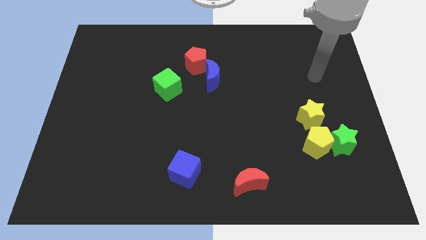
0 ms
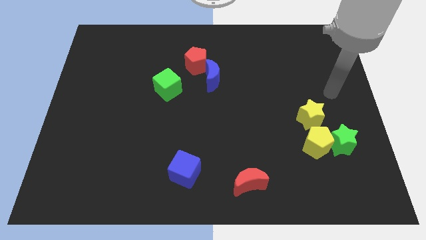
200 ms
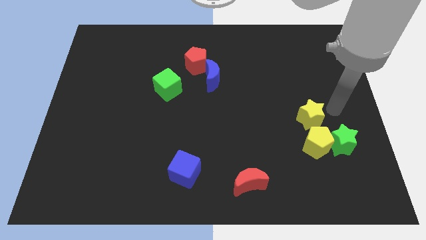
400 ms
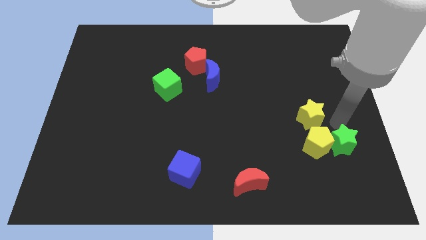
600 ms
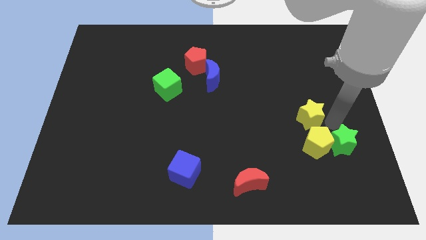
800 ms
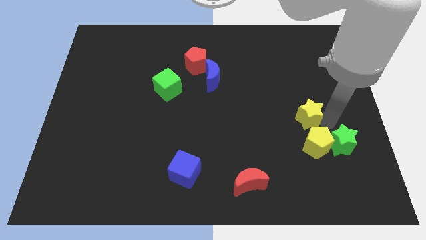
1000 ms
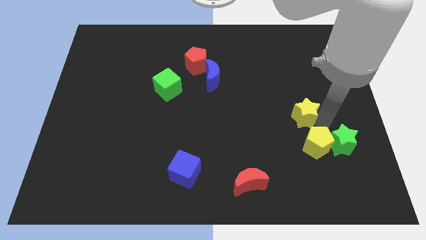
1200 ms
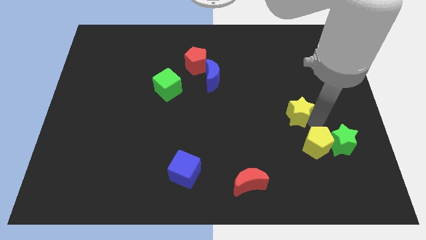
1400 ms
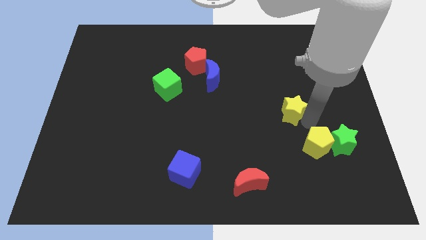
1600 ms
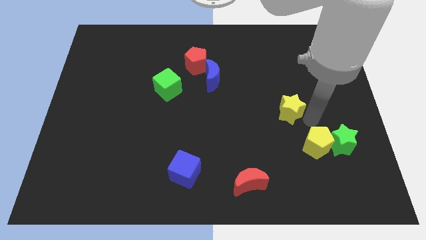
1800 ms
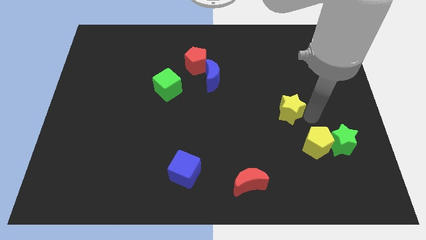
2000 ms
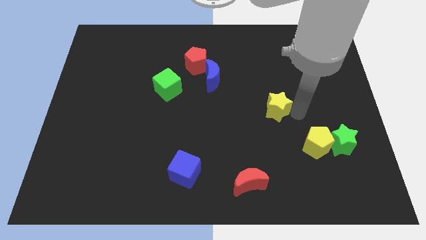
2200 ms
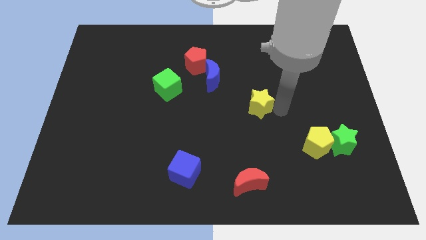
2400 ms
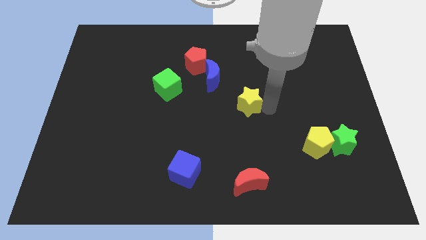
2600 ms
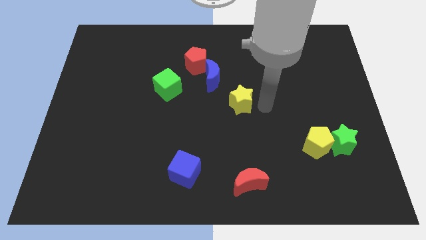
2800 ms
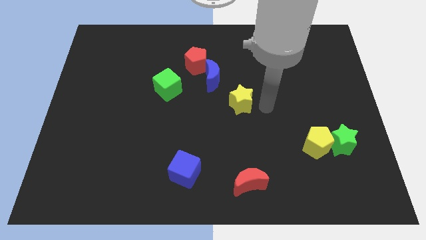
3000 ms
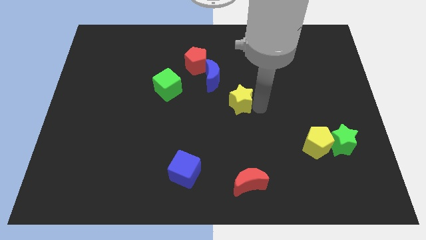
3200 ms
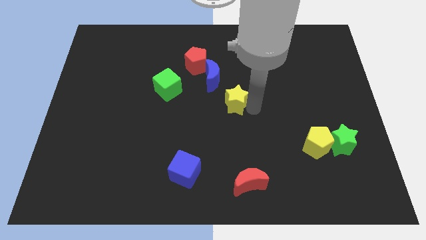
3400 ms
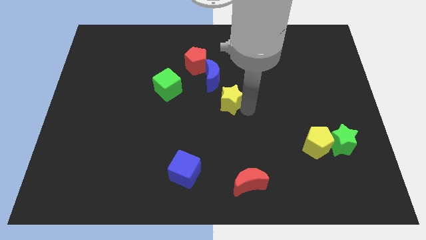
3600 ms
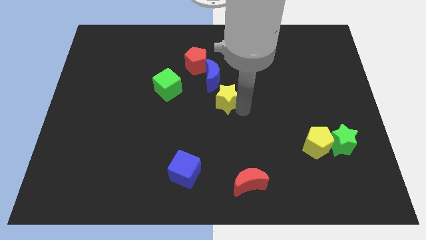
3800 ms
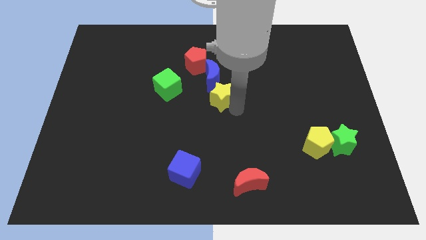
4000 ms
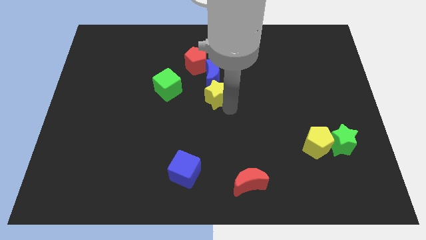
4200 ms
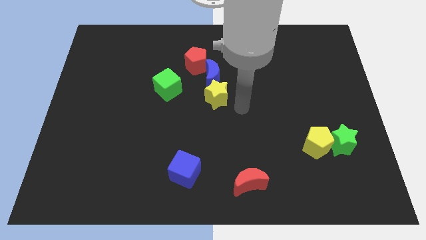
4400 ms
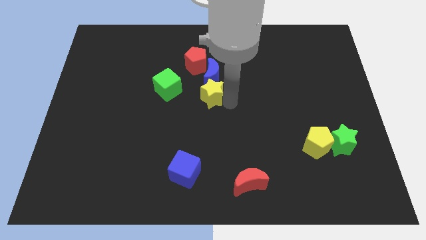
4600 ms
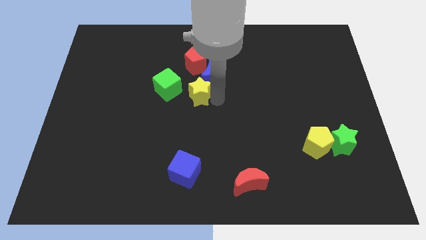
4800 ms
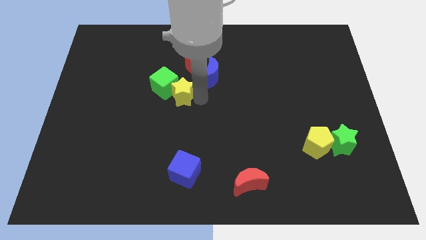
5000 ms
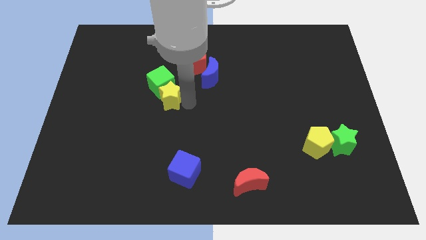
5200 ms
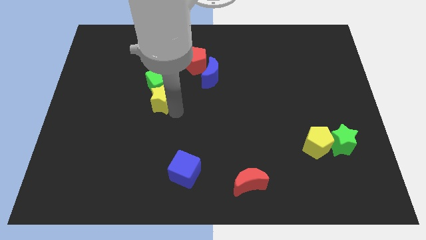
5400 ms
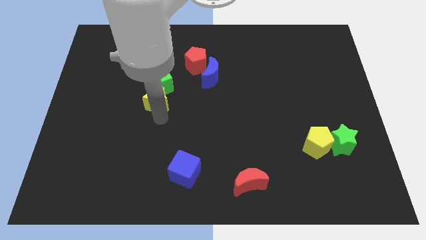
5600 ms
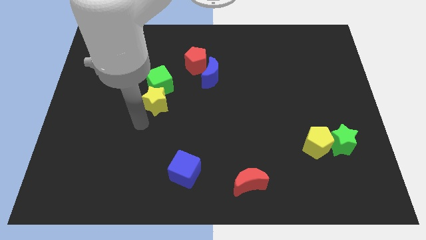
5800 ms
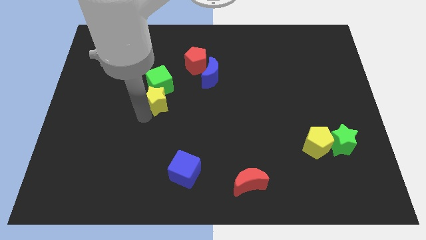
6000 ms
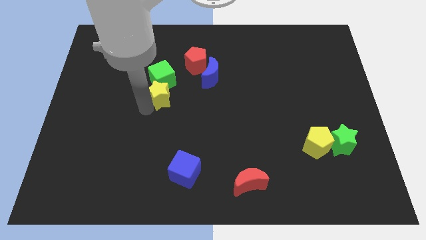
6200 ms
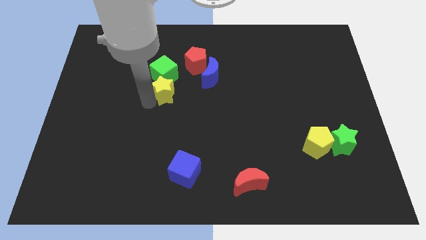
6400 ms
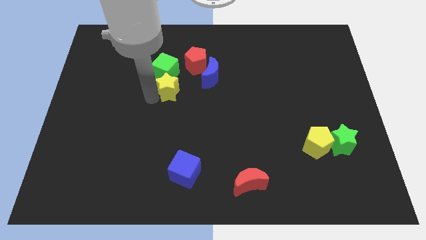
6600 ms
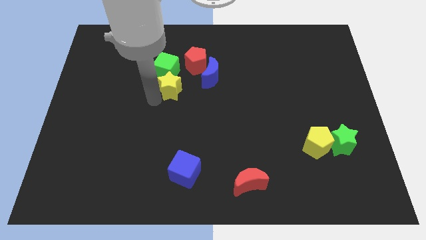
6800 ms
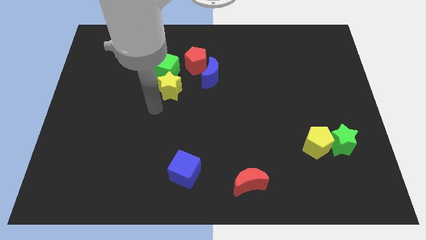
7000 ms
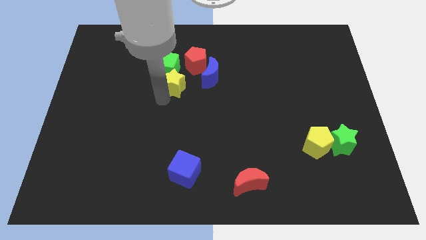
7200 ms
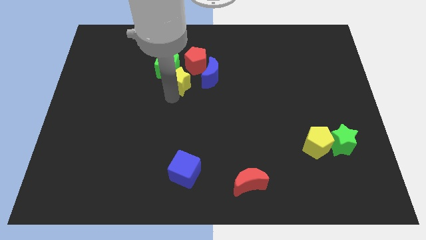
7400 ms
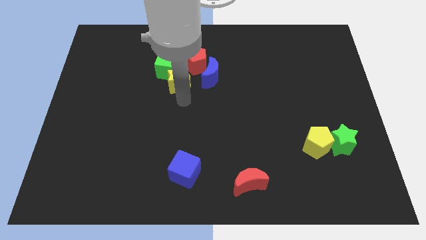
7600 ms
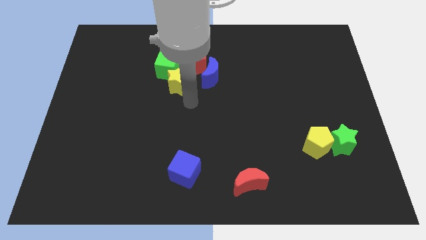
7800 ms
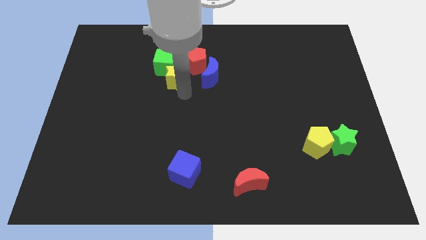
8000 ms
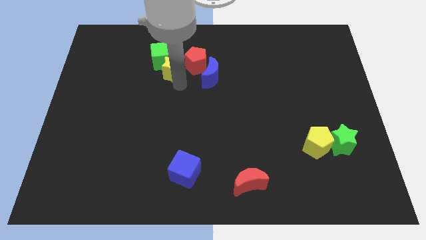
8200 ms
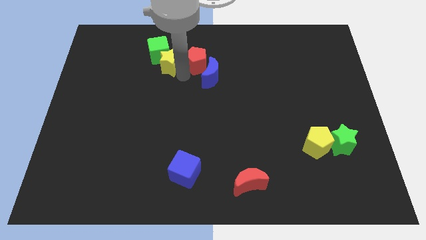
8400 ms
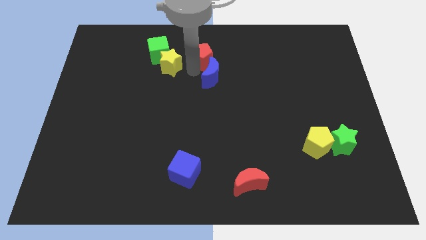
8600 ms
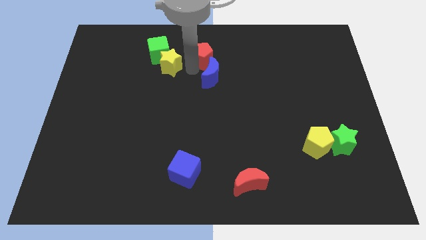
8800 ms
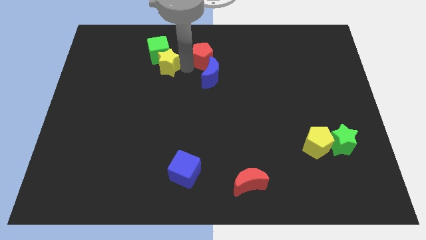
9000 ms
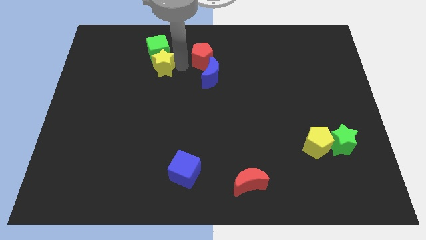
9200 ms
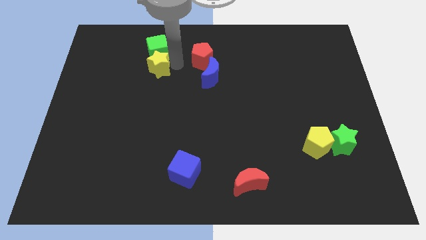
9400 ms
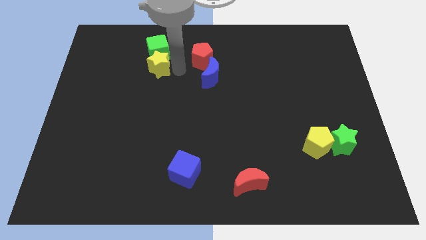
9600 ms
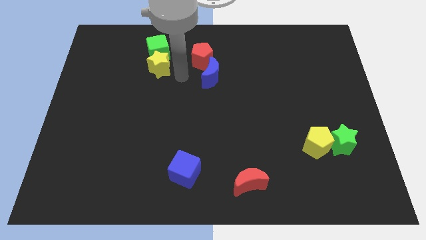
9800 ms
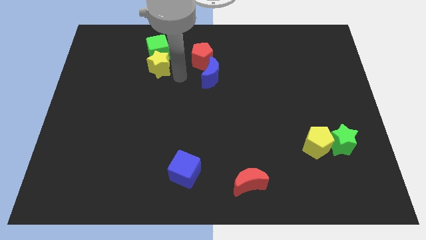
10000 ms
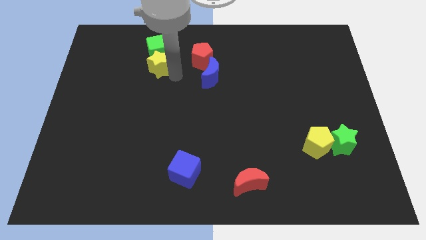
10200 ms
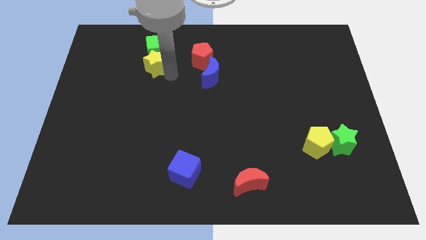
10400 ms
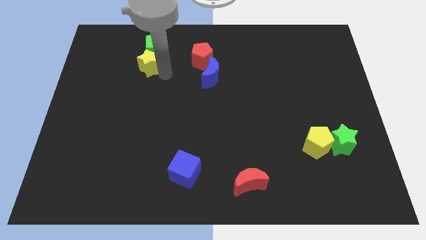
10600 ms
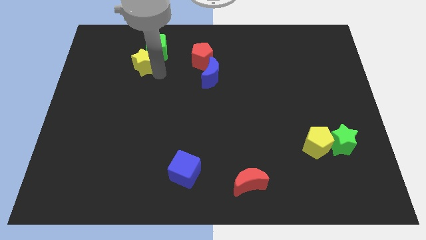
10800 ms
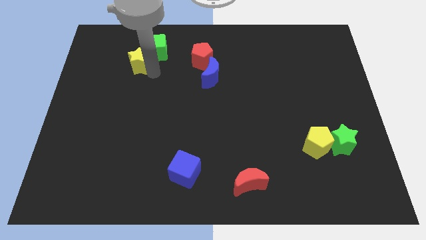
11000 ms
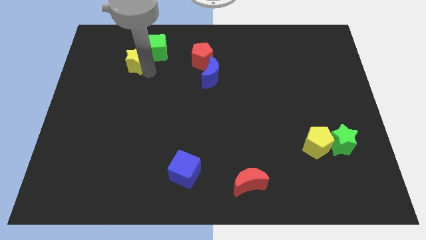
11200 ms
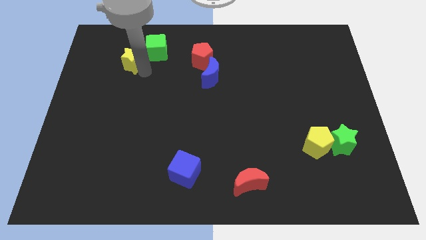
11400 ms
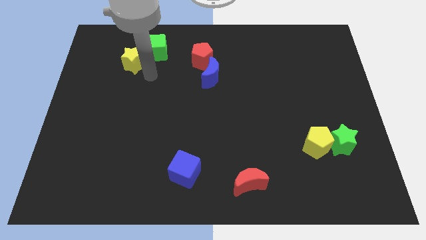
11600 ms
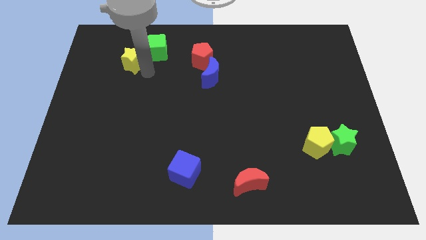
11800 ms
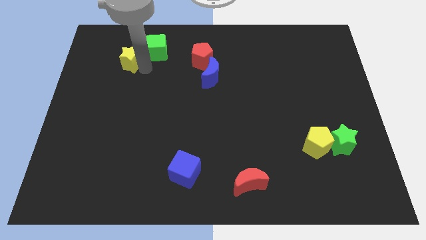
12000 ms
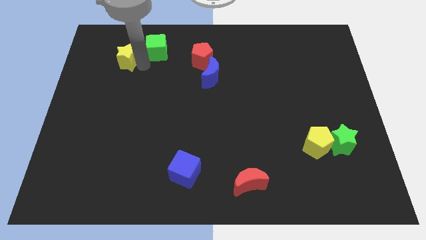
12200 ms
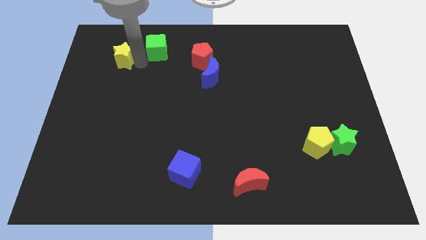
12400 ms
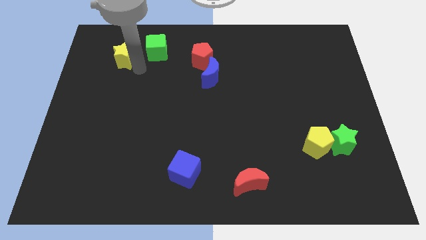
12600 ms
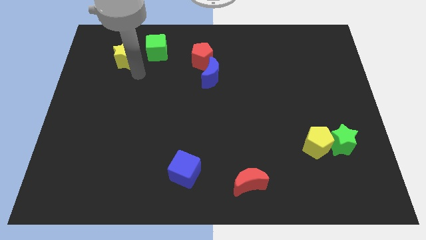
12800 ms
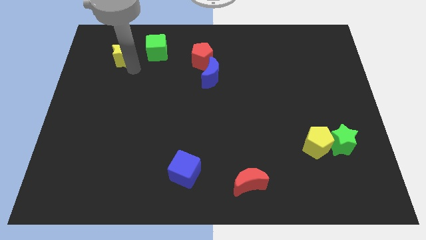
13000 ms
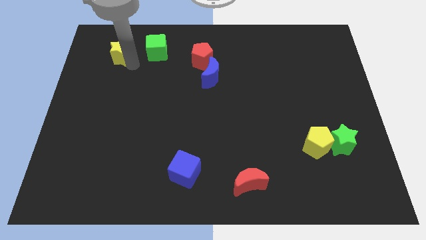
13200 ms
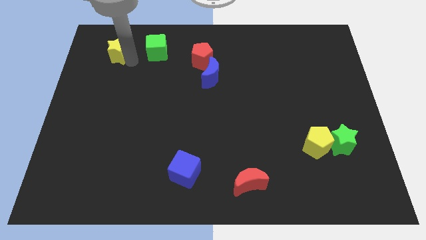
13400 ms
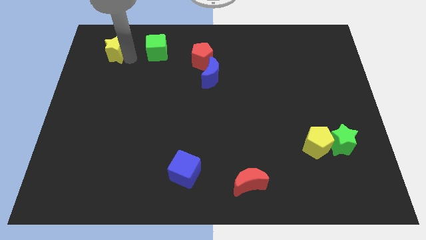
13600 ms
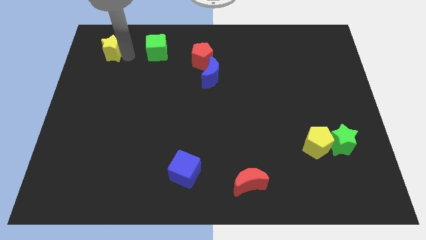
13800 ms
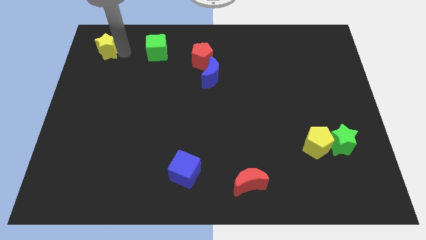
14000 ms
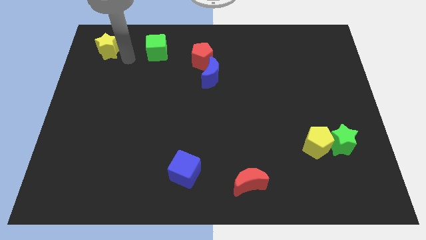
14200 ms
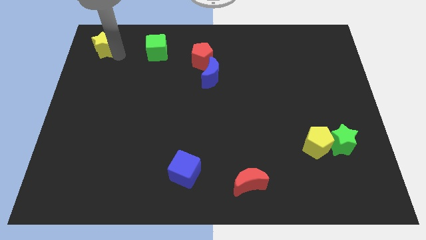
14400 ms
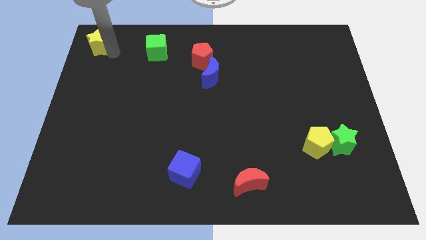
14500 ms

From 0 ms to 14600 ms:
move the yellow star to the top left corner

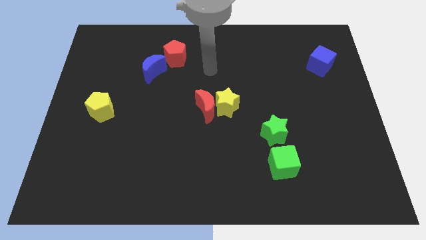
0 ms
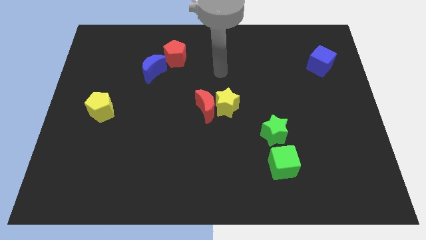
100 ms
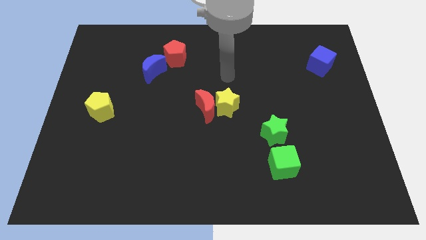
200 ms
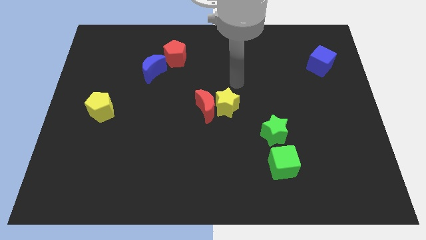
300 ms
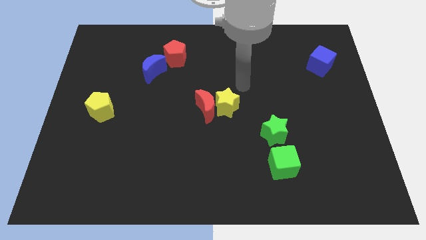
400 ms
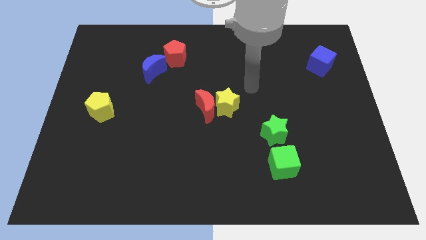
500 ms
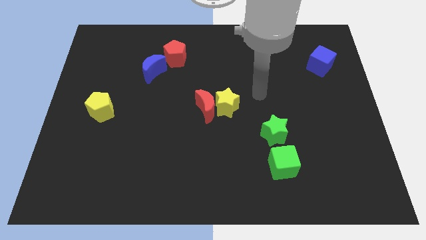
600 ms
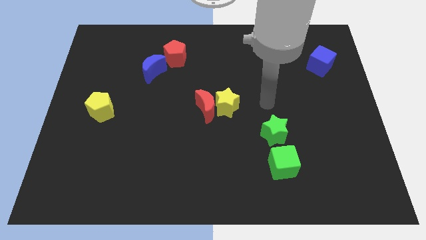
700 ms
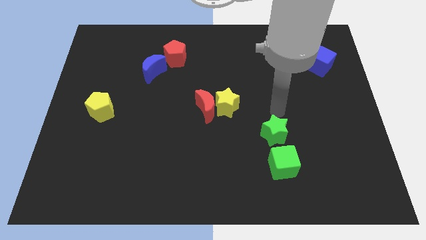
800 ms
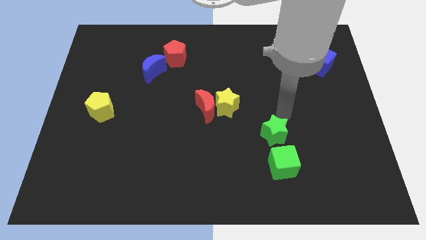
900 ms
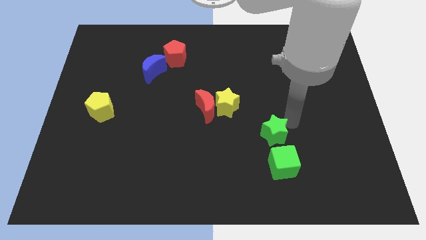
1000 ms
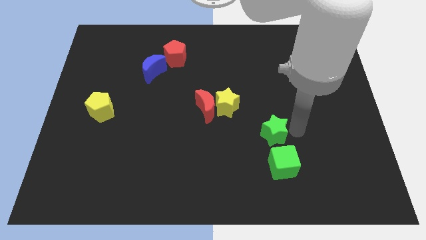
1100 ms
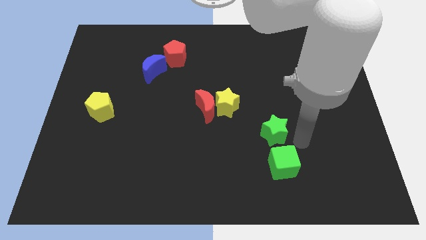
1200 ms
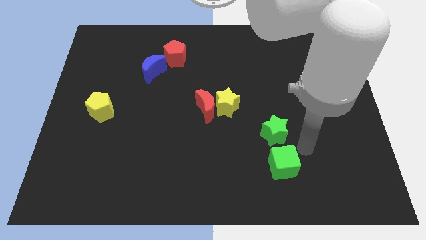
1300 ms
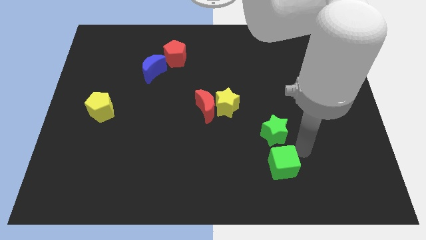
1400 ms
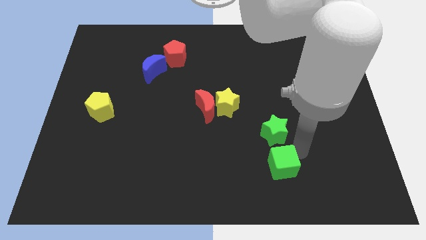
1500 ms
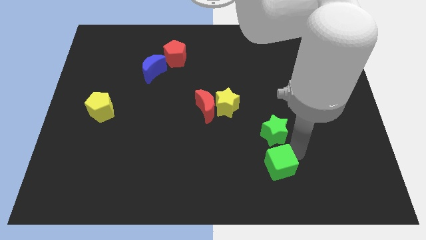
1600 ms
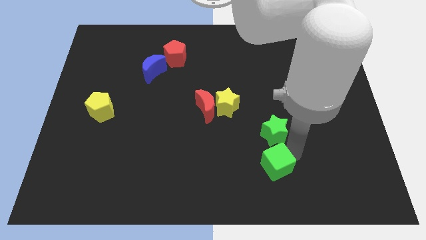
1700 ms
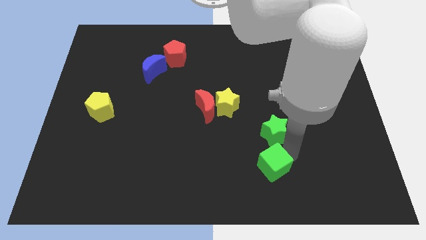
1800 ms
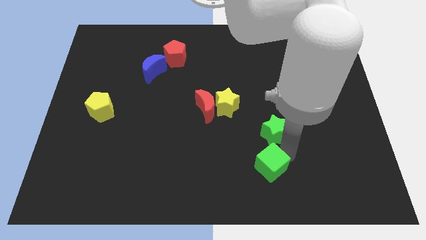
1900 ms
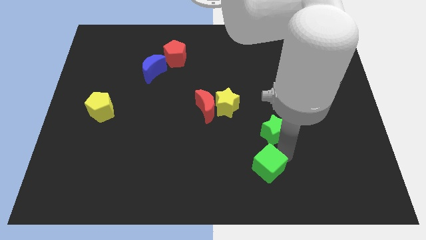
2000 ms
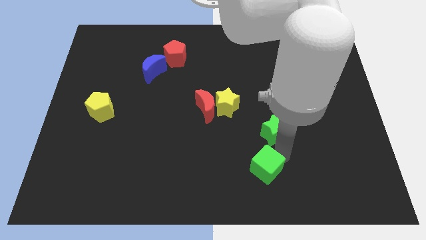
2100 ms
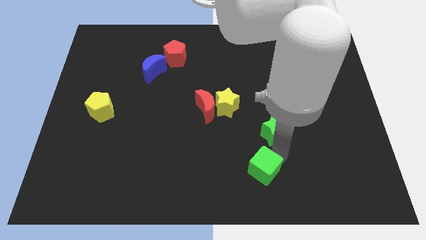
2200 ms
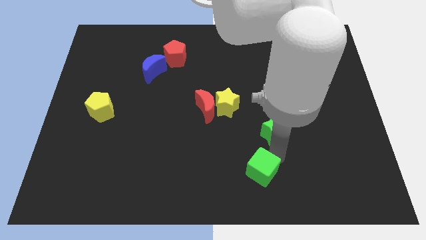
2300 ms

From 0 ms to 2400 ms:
move the green cube to the bottom
